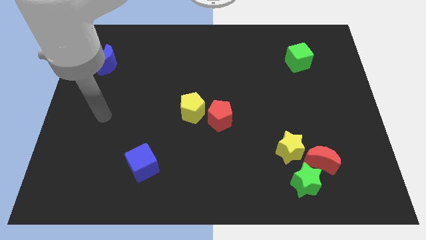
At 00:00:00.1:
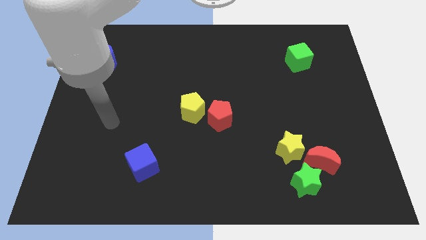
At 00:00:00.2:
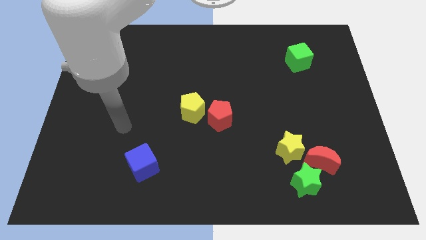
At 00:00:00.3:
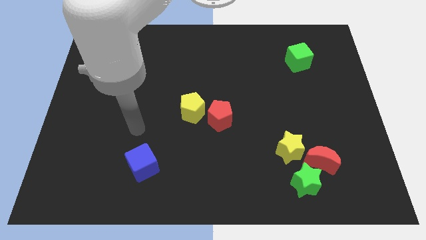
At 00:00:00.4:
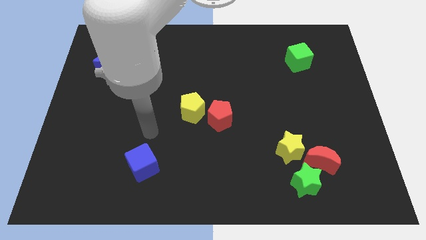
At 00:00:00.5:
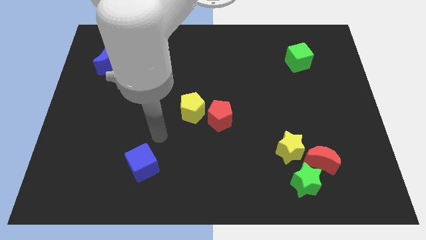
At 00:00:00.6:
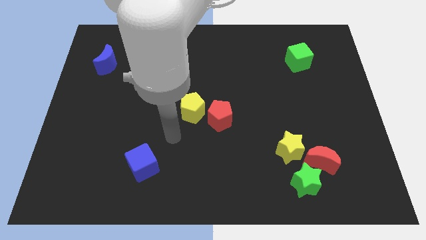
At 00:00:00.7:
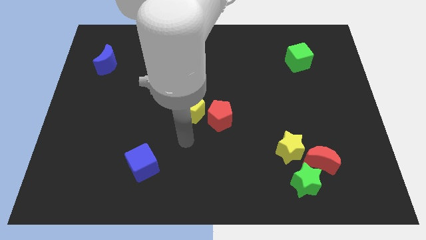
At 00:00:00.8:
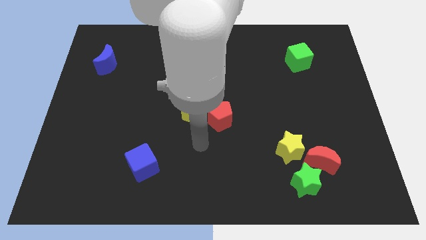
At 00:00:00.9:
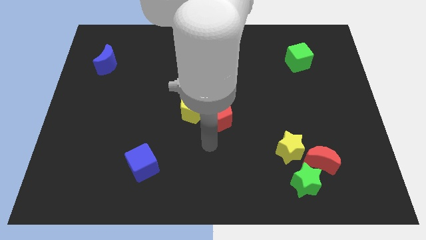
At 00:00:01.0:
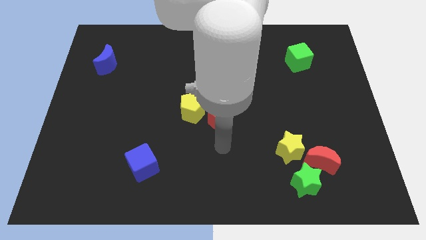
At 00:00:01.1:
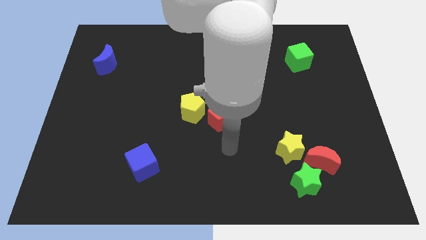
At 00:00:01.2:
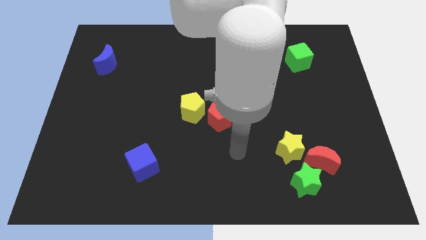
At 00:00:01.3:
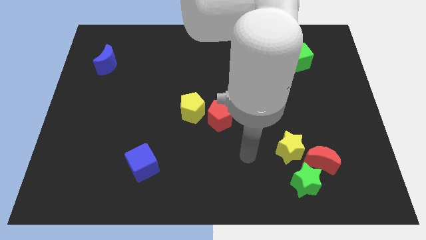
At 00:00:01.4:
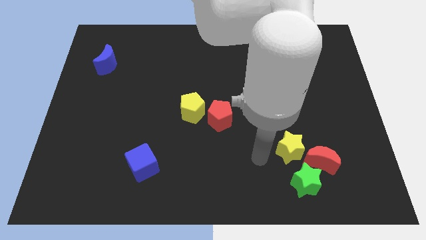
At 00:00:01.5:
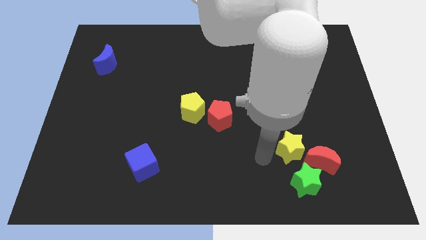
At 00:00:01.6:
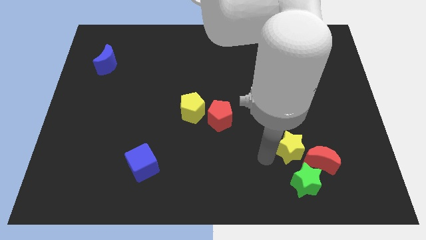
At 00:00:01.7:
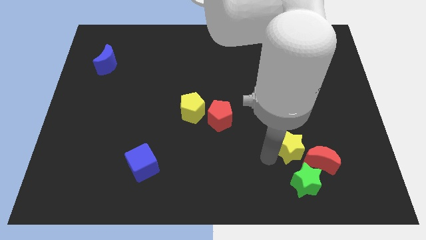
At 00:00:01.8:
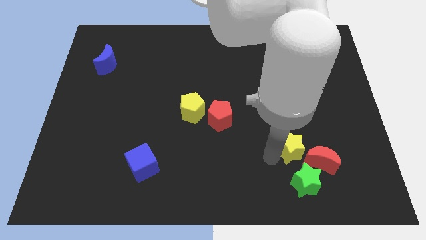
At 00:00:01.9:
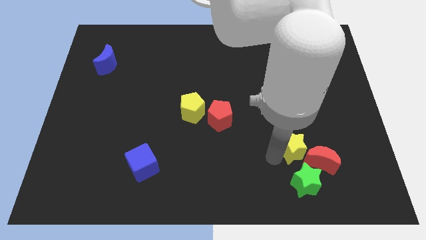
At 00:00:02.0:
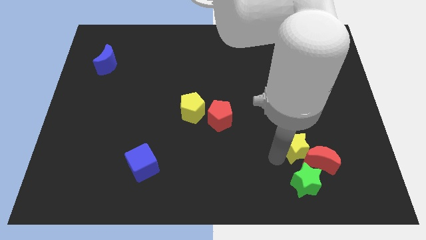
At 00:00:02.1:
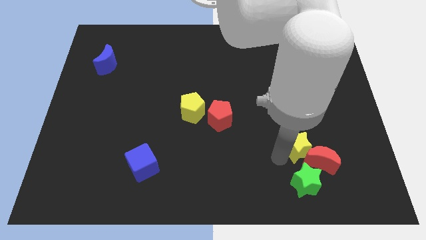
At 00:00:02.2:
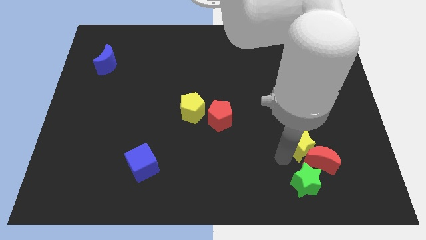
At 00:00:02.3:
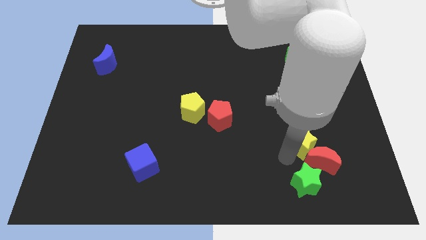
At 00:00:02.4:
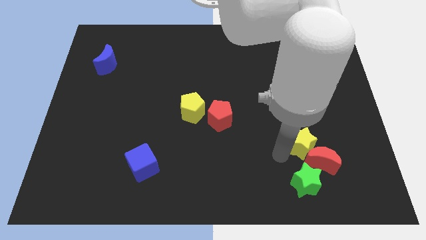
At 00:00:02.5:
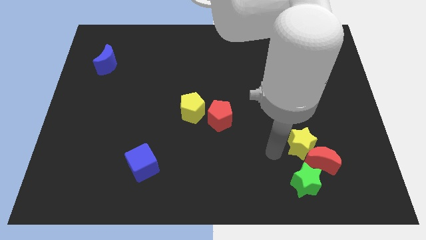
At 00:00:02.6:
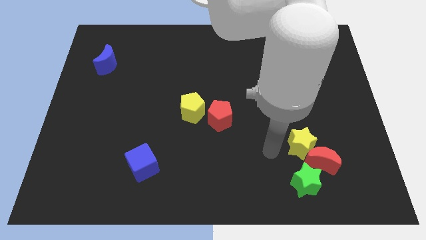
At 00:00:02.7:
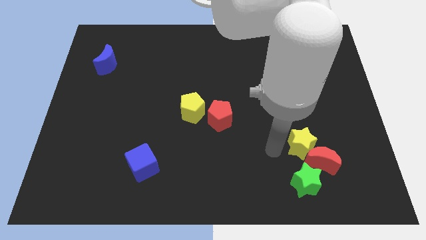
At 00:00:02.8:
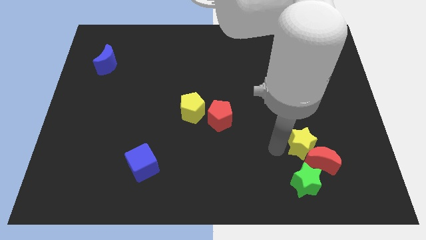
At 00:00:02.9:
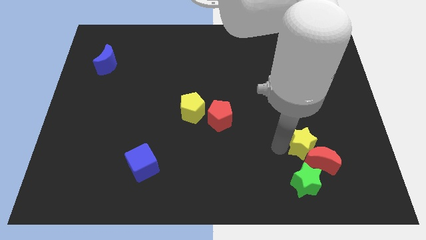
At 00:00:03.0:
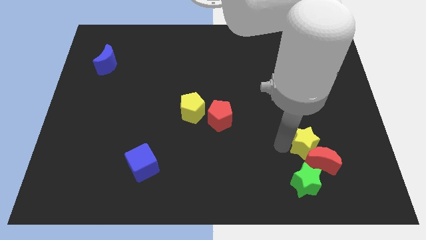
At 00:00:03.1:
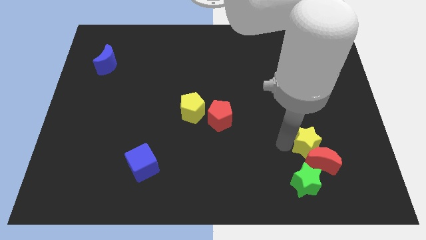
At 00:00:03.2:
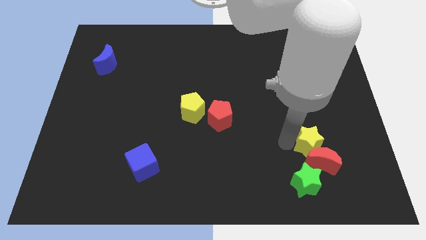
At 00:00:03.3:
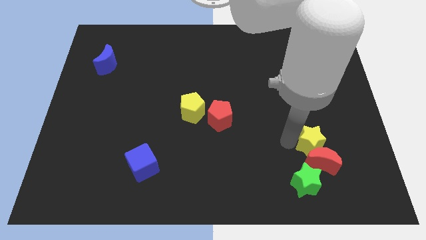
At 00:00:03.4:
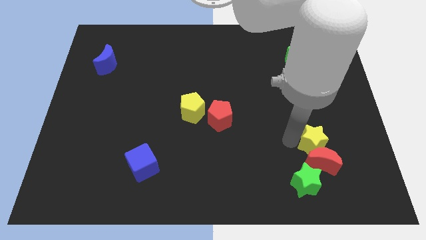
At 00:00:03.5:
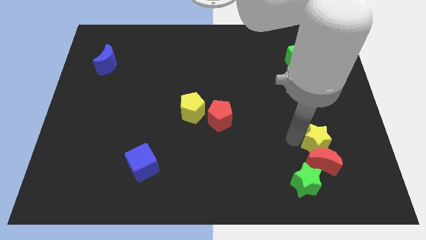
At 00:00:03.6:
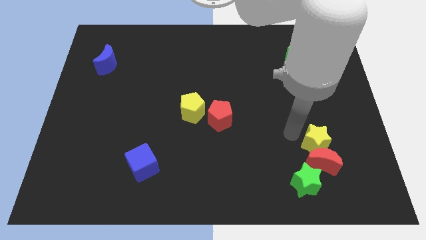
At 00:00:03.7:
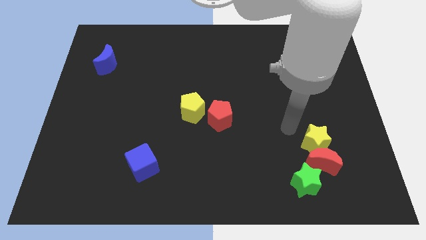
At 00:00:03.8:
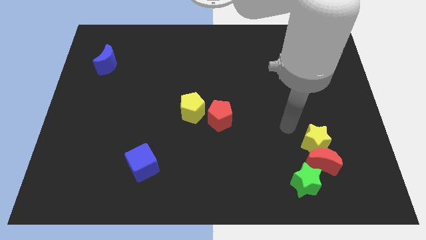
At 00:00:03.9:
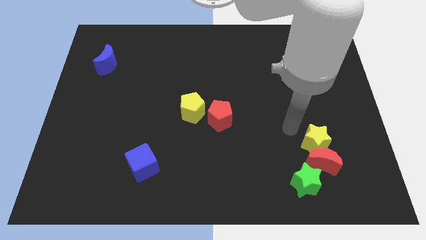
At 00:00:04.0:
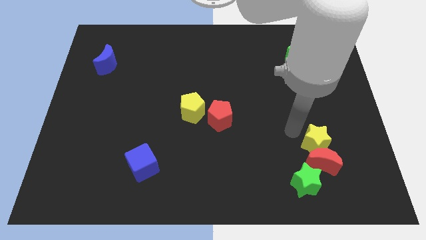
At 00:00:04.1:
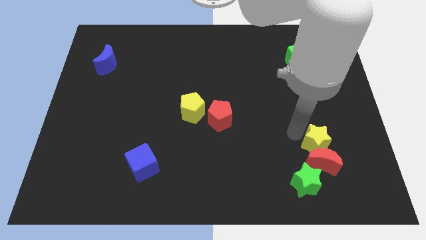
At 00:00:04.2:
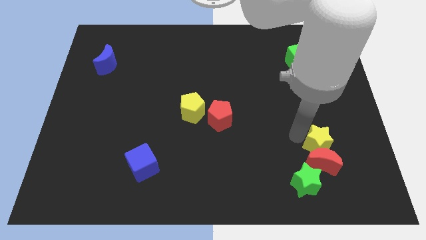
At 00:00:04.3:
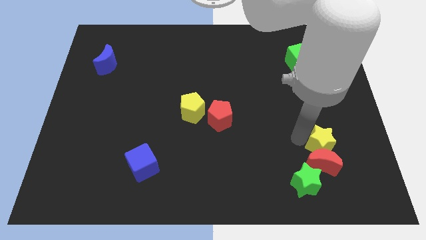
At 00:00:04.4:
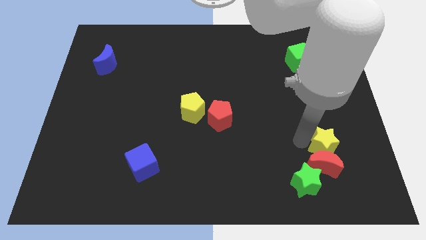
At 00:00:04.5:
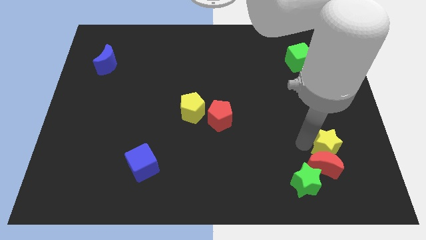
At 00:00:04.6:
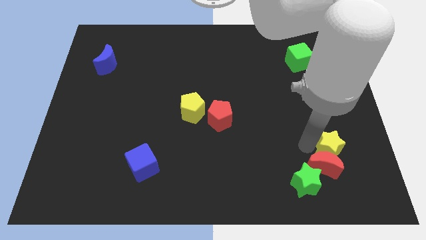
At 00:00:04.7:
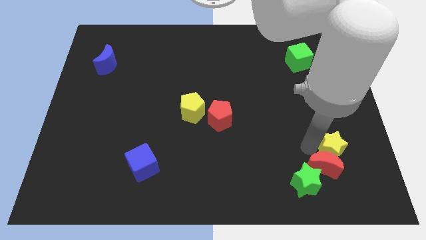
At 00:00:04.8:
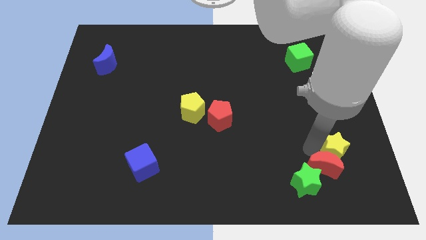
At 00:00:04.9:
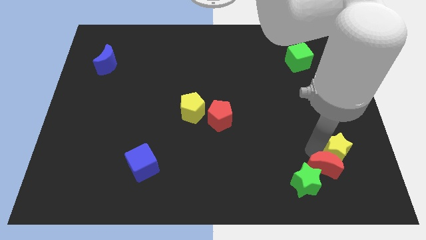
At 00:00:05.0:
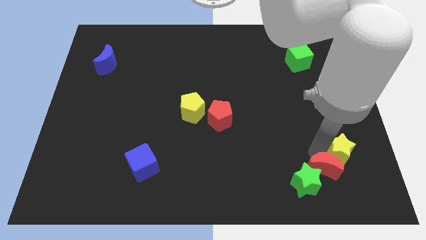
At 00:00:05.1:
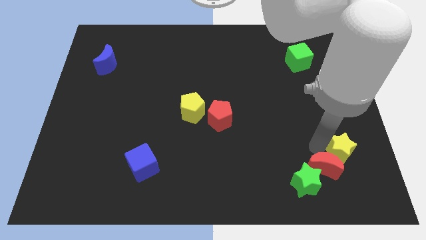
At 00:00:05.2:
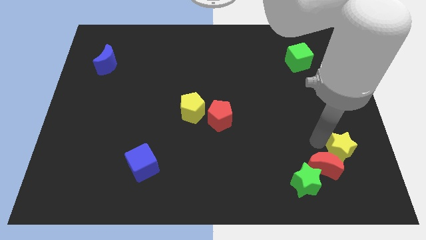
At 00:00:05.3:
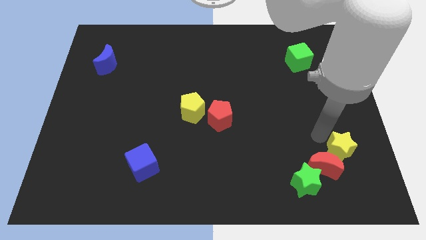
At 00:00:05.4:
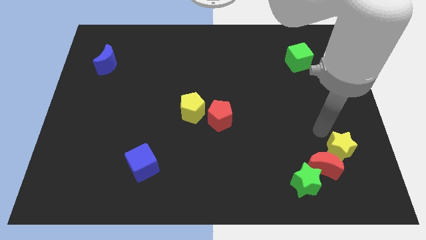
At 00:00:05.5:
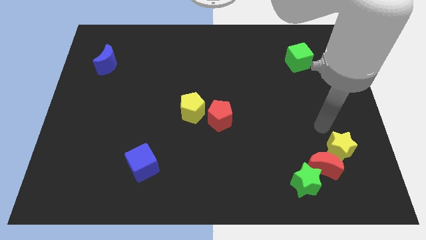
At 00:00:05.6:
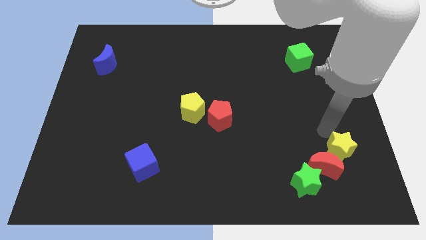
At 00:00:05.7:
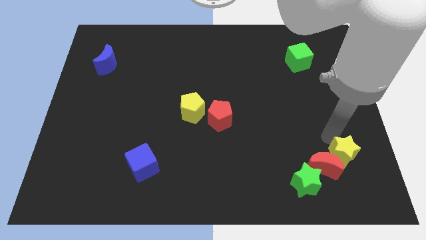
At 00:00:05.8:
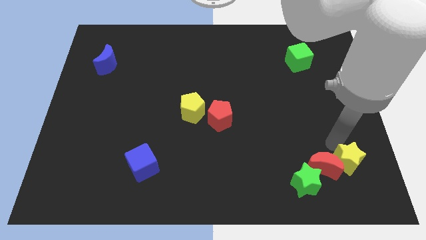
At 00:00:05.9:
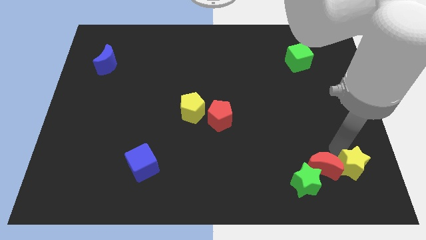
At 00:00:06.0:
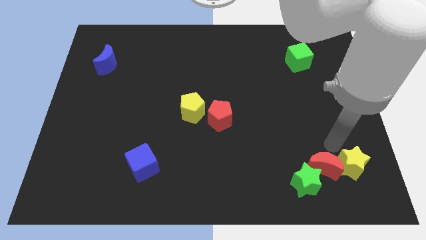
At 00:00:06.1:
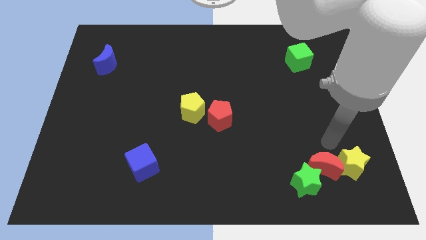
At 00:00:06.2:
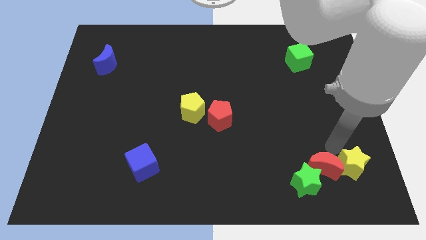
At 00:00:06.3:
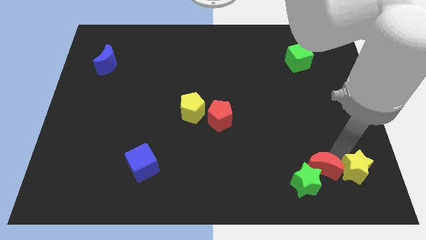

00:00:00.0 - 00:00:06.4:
put the yellow star to the bottom right

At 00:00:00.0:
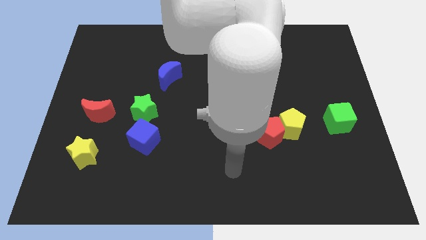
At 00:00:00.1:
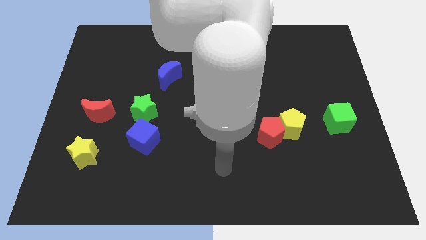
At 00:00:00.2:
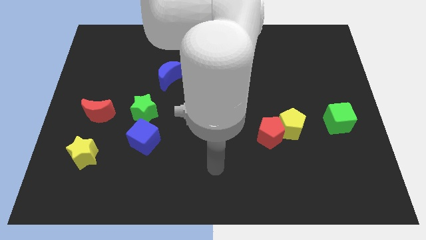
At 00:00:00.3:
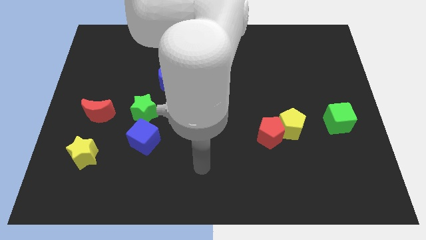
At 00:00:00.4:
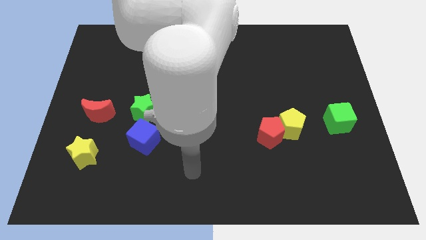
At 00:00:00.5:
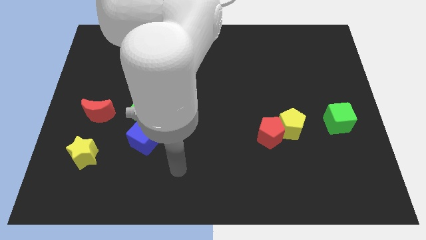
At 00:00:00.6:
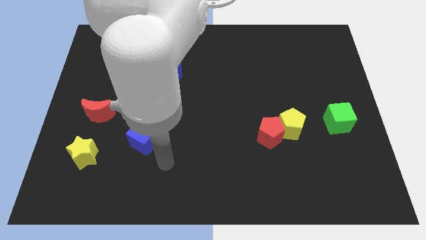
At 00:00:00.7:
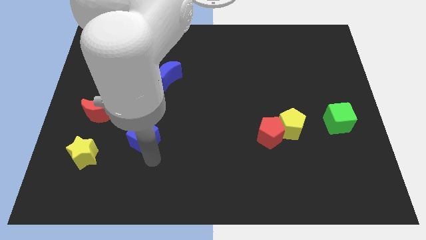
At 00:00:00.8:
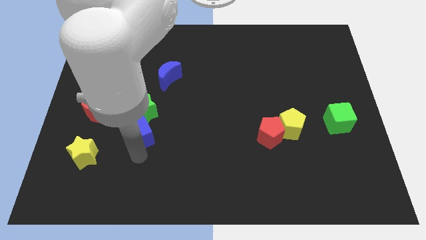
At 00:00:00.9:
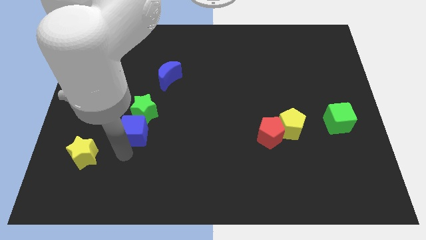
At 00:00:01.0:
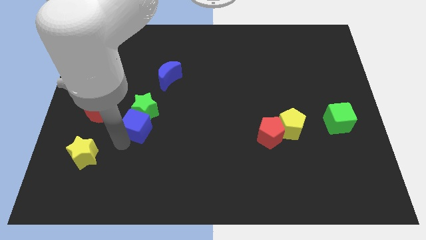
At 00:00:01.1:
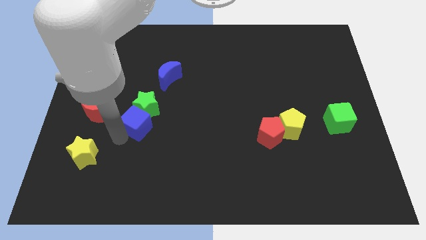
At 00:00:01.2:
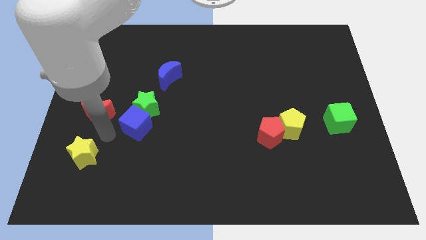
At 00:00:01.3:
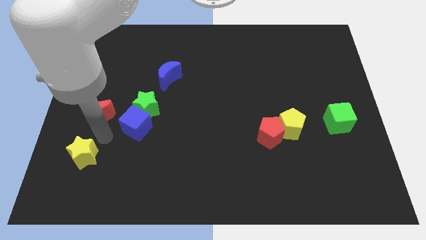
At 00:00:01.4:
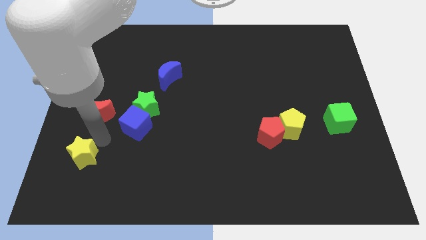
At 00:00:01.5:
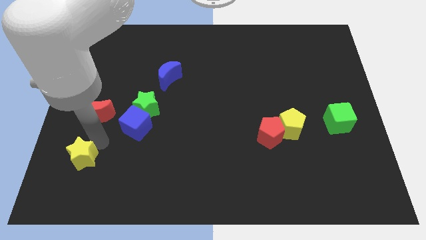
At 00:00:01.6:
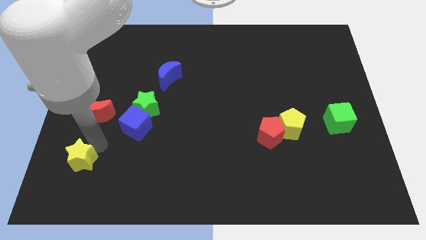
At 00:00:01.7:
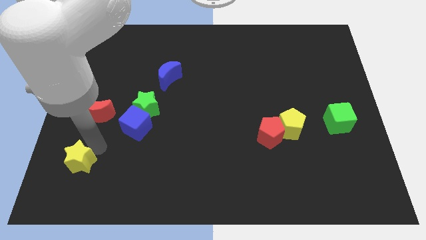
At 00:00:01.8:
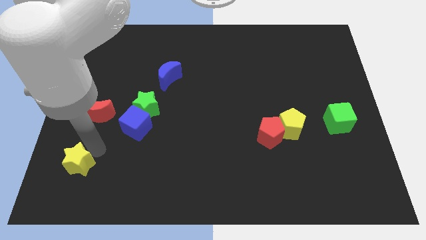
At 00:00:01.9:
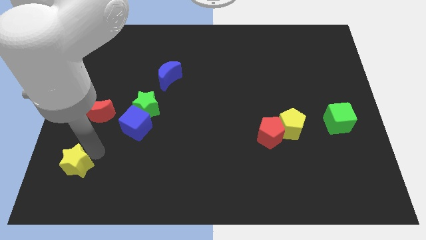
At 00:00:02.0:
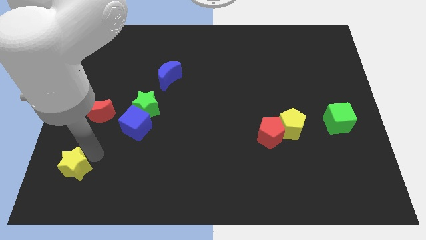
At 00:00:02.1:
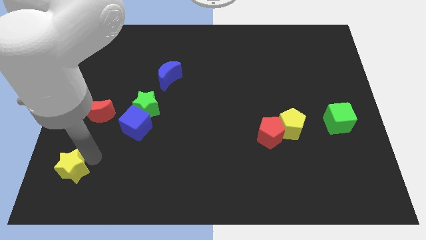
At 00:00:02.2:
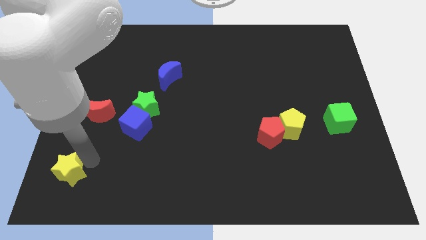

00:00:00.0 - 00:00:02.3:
move the yellow star to the bottom left of the board
